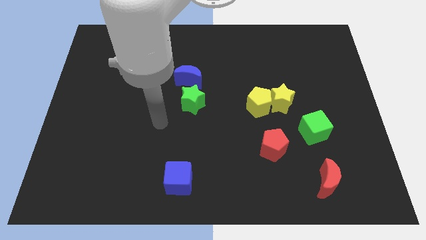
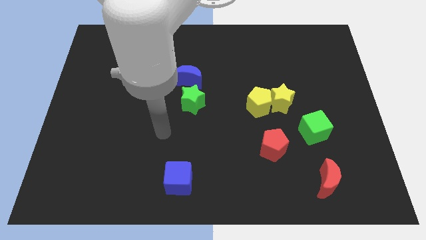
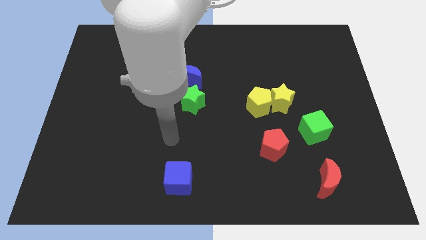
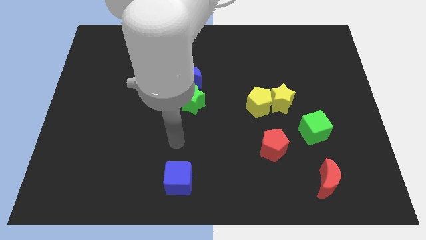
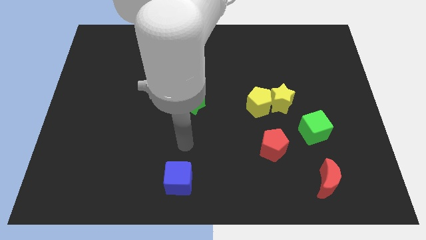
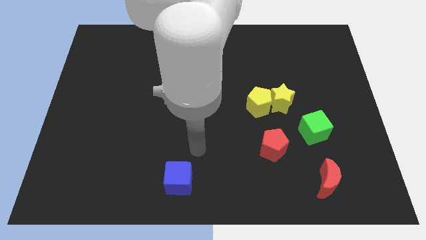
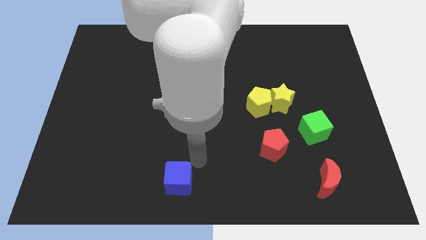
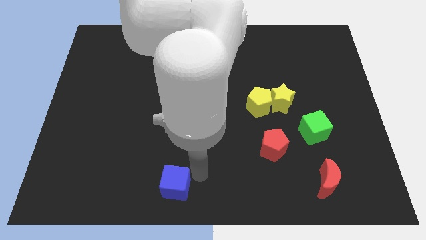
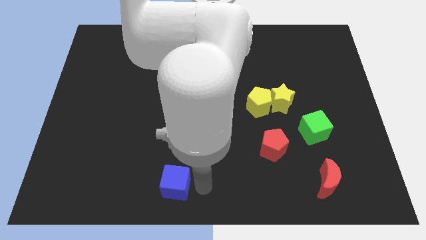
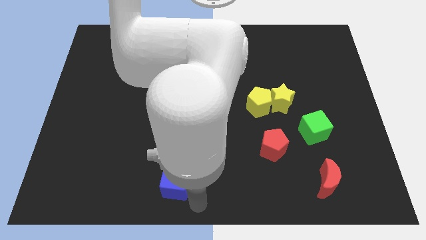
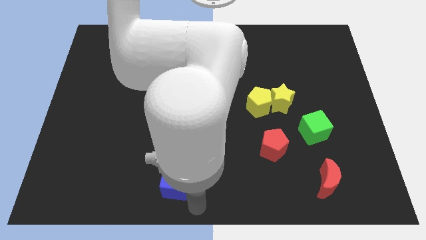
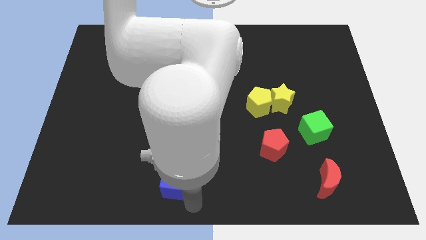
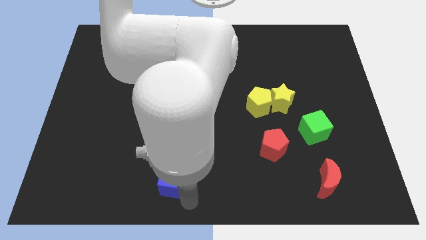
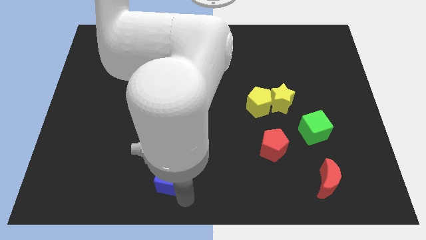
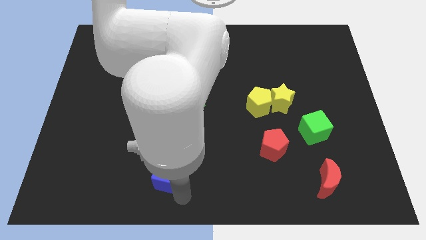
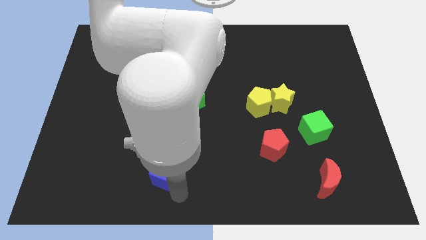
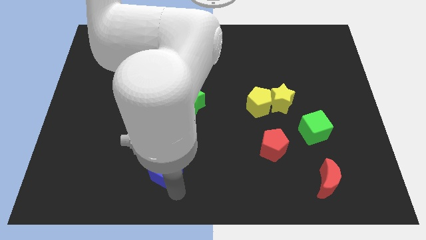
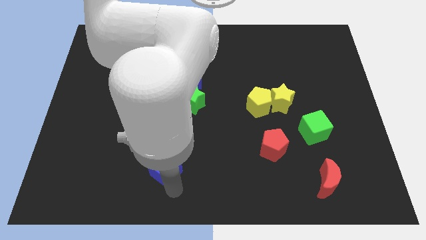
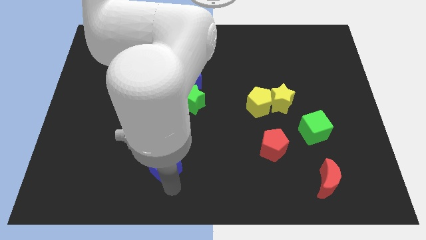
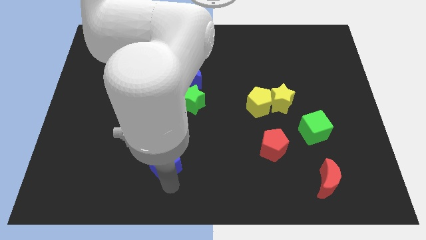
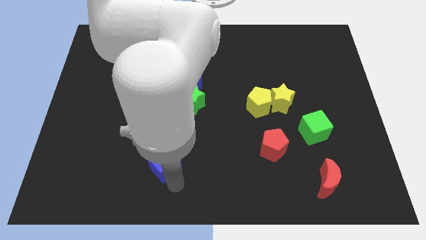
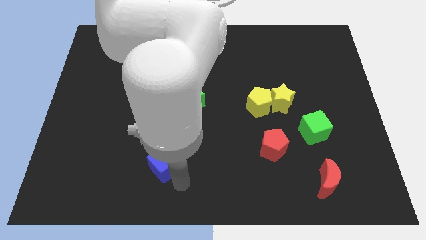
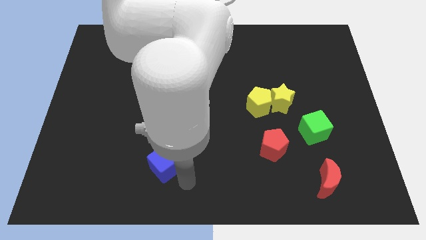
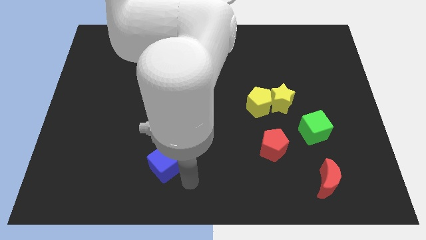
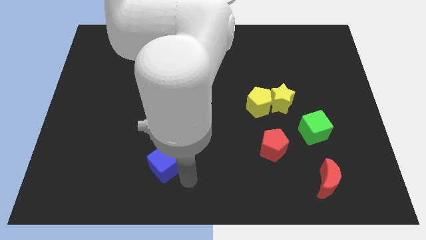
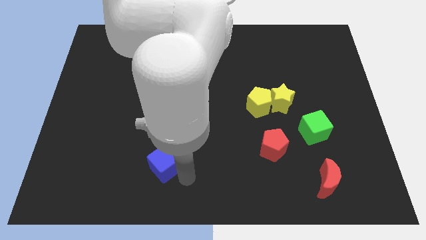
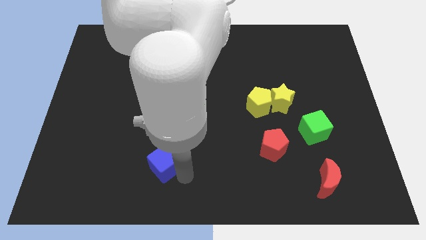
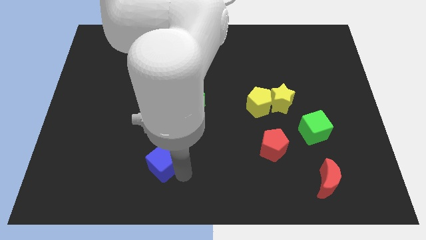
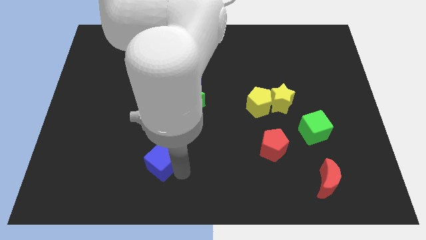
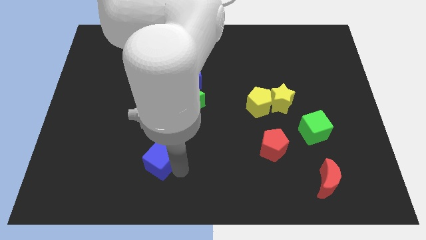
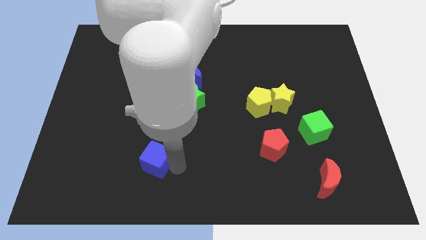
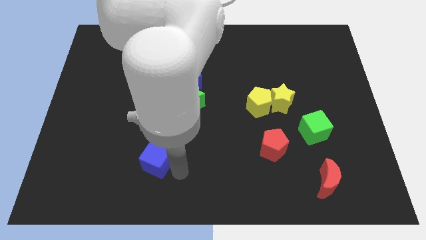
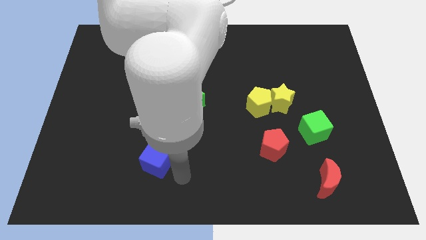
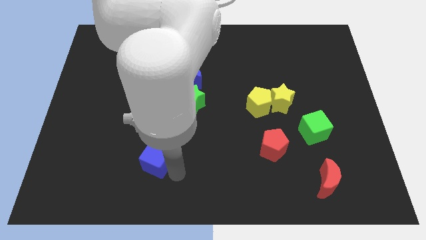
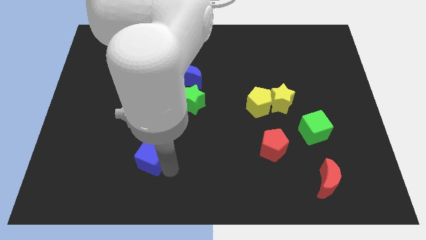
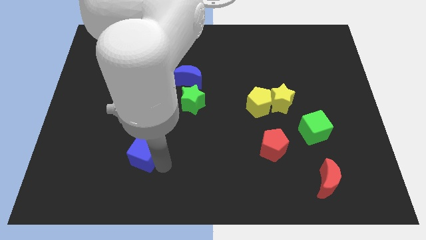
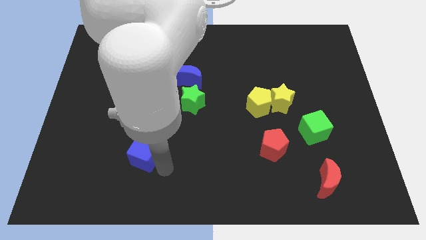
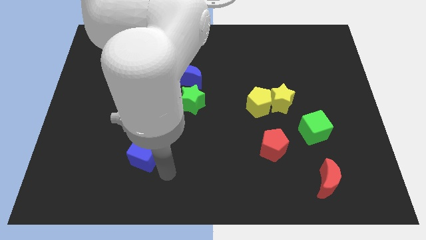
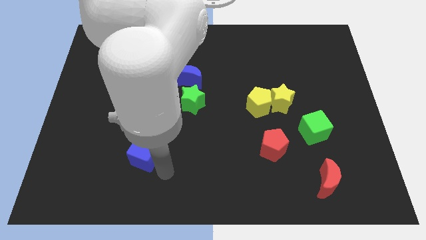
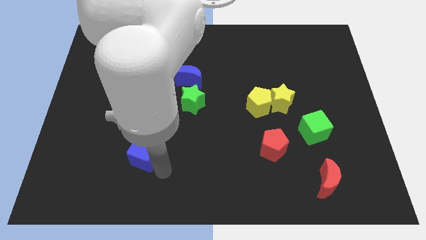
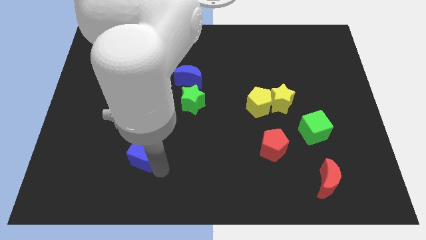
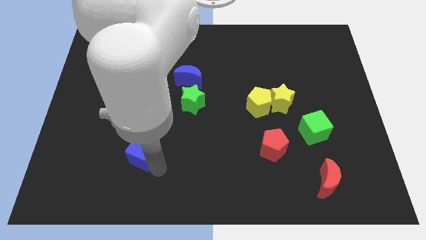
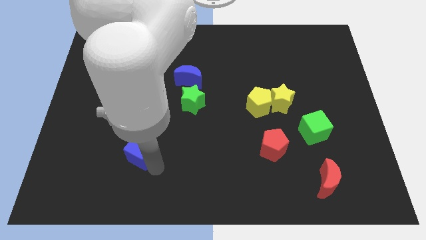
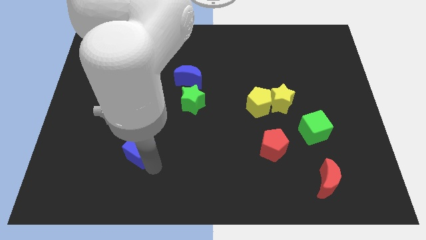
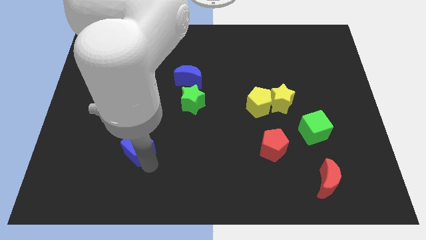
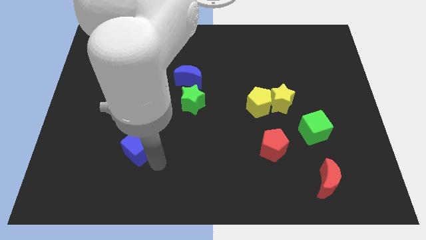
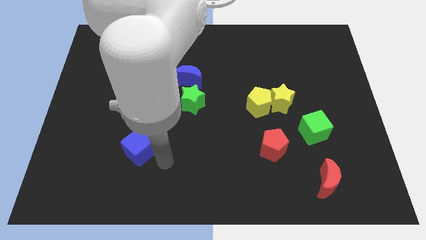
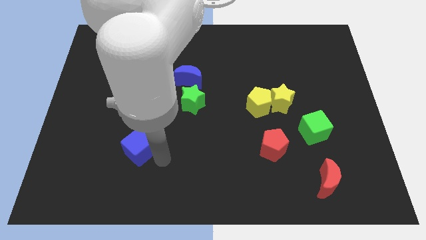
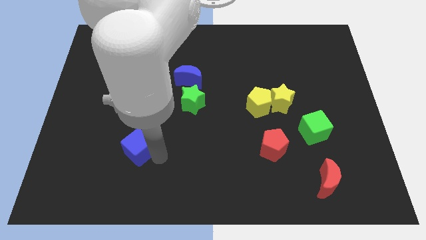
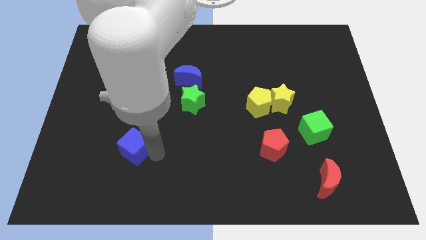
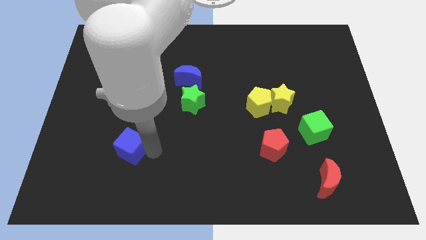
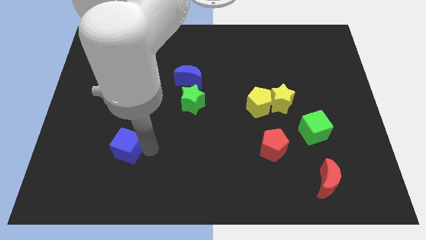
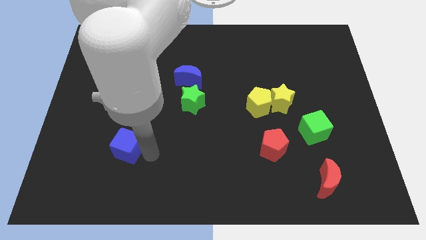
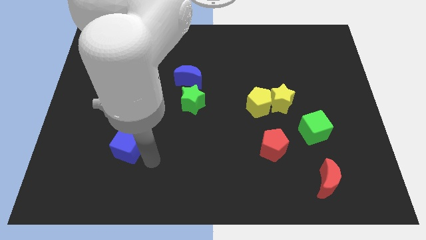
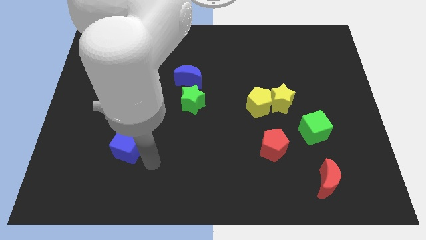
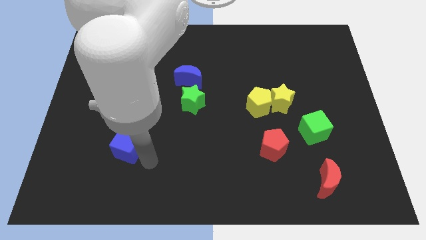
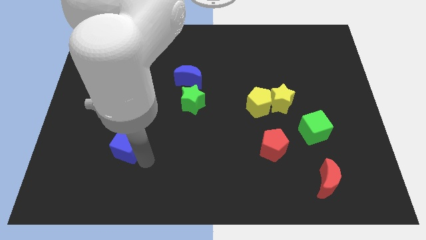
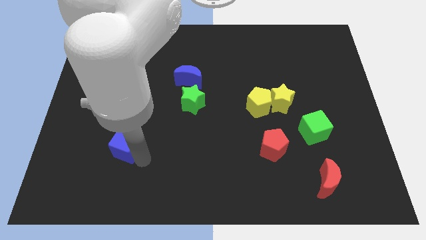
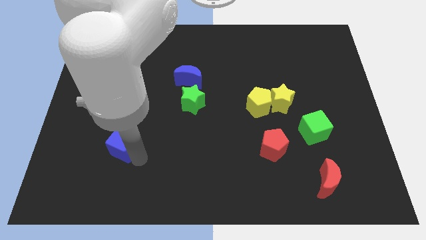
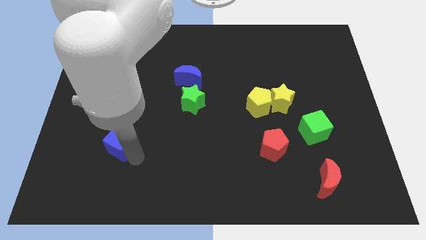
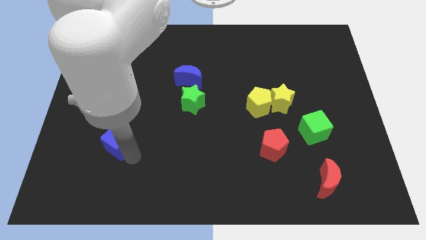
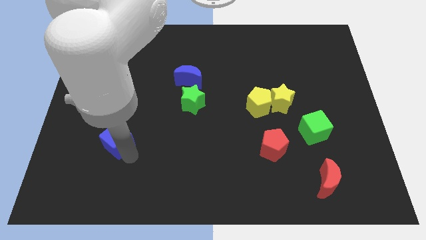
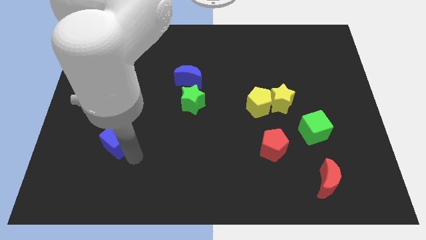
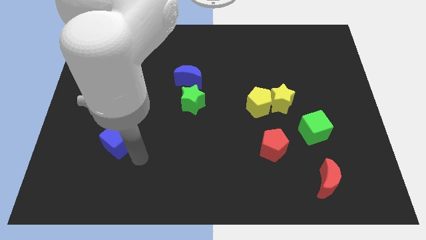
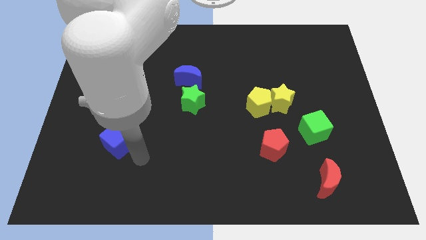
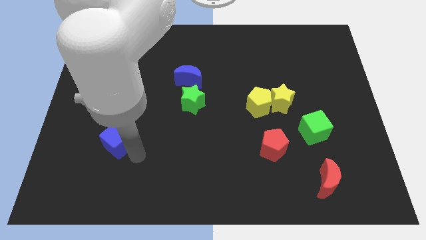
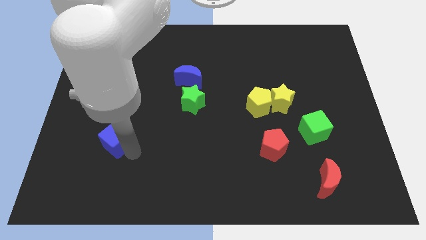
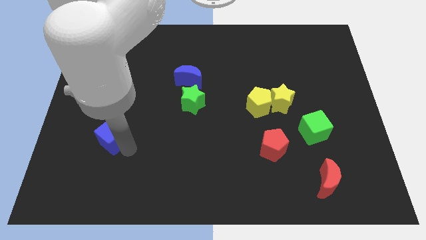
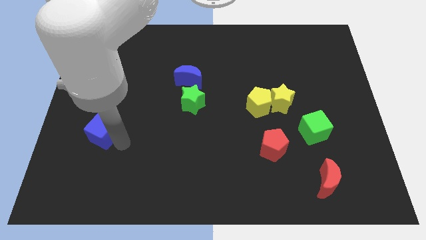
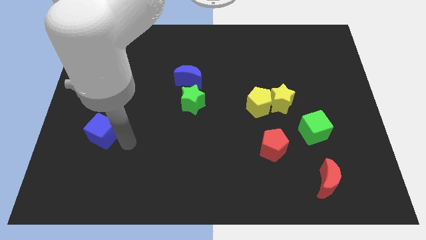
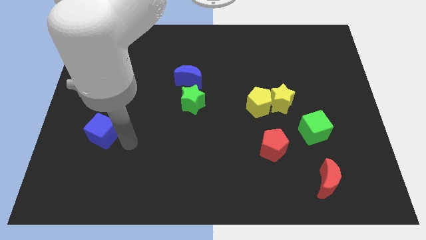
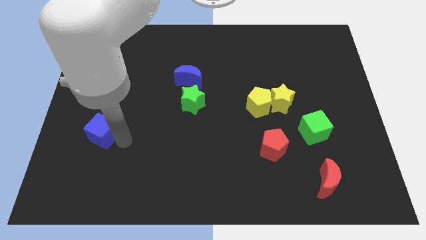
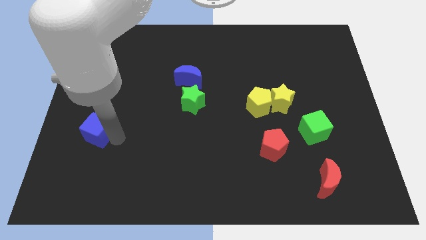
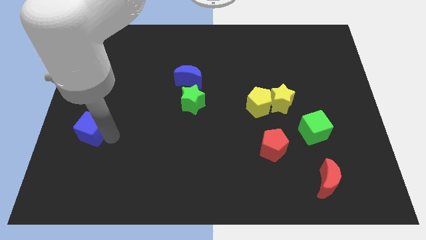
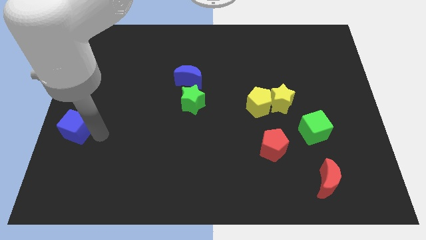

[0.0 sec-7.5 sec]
push the blue cube to the center left
